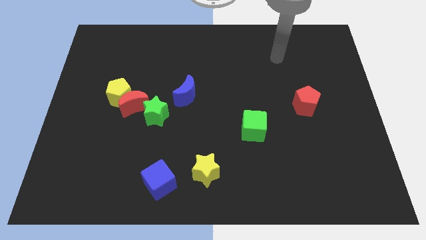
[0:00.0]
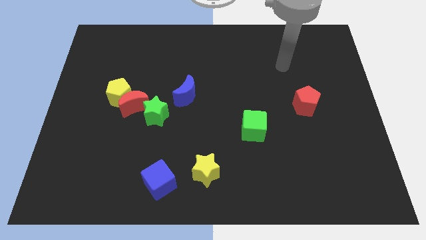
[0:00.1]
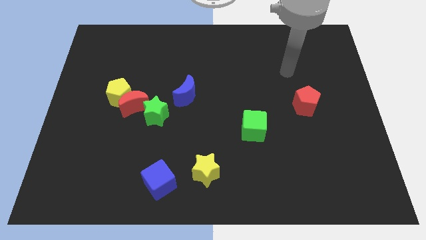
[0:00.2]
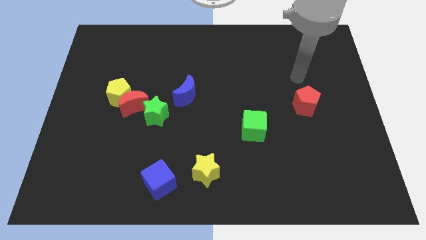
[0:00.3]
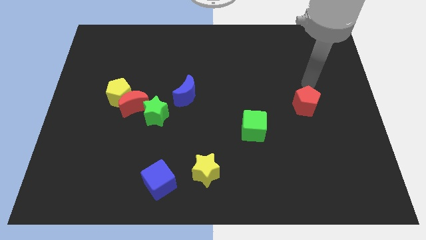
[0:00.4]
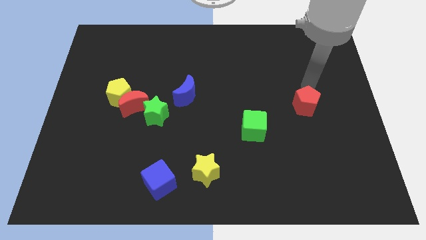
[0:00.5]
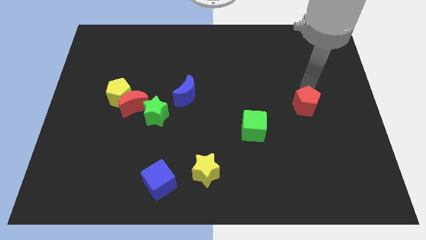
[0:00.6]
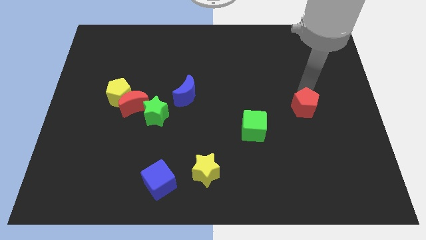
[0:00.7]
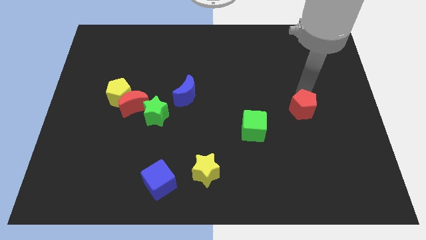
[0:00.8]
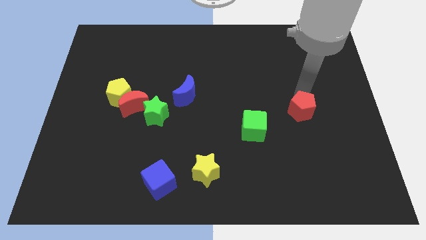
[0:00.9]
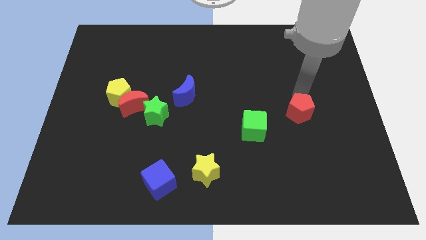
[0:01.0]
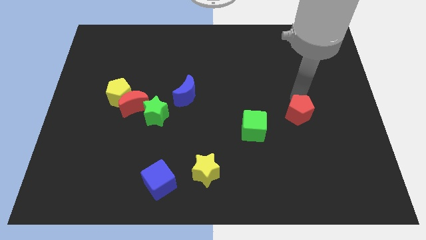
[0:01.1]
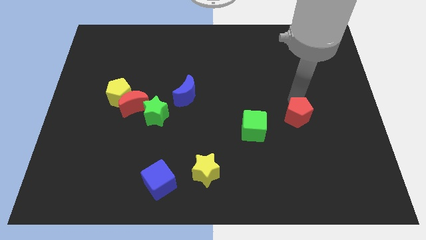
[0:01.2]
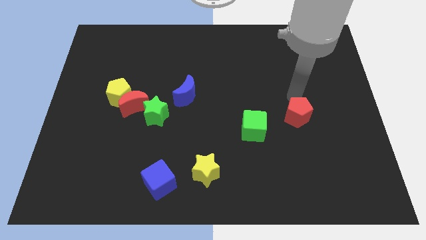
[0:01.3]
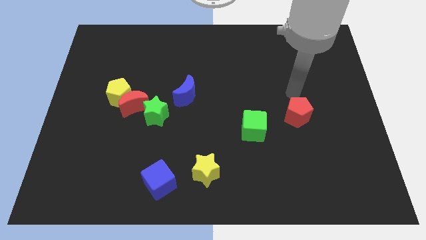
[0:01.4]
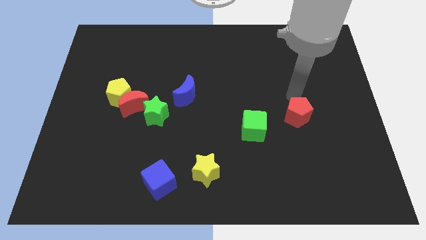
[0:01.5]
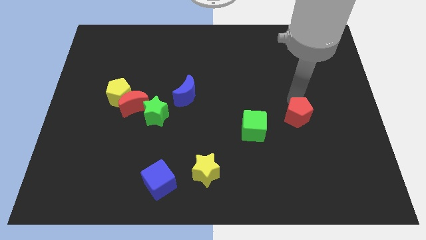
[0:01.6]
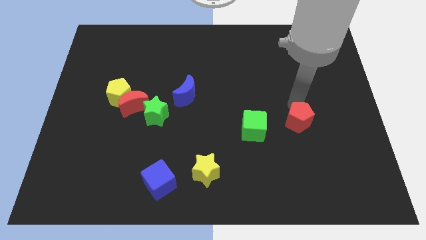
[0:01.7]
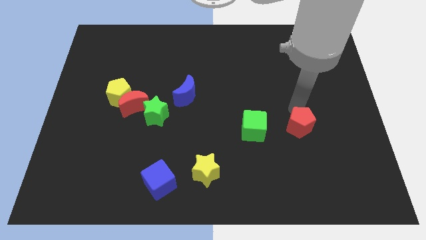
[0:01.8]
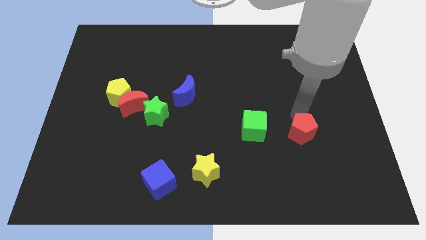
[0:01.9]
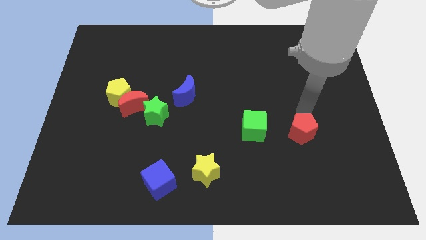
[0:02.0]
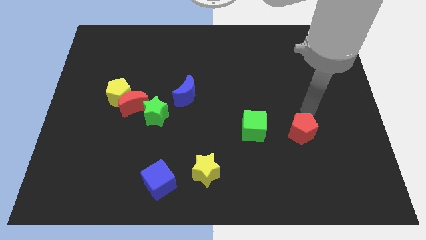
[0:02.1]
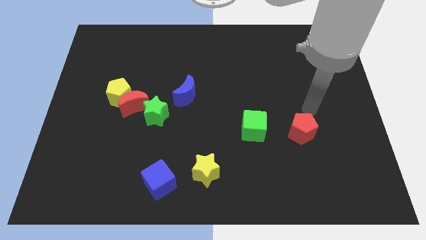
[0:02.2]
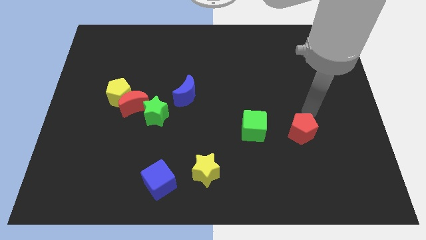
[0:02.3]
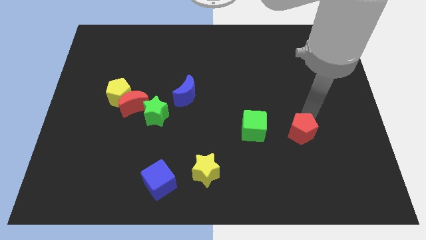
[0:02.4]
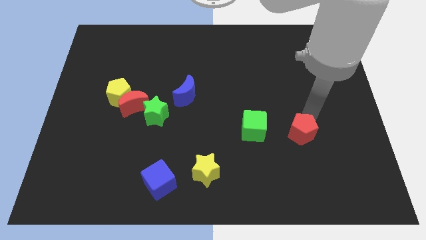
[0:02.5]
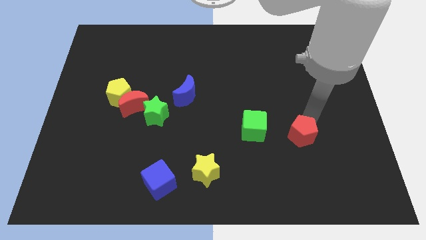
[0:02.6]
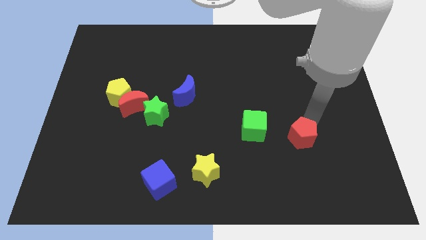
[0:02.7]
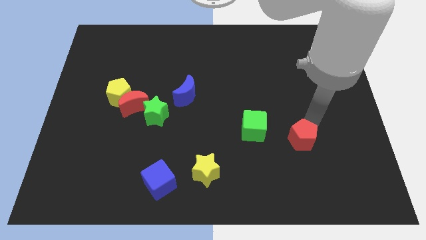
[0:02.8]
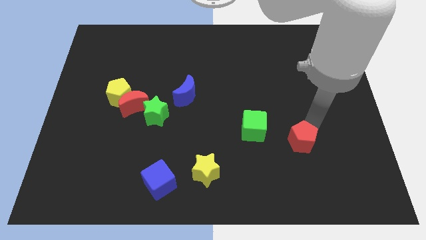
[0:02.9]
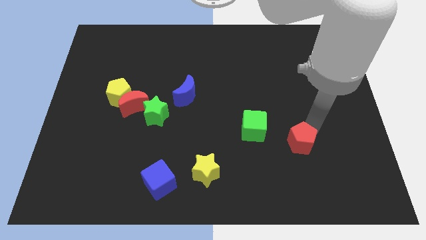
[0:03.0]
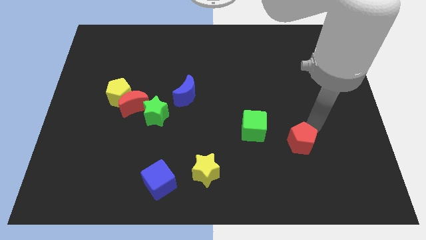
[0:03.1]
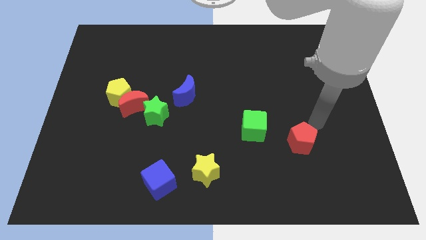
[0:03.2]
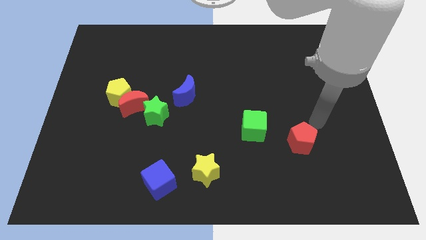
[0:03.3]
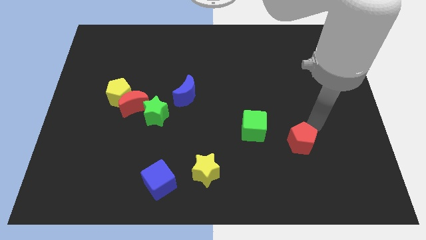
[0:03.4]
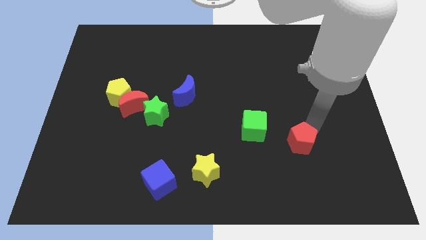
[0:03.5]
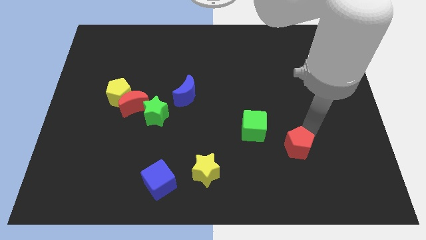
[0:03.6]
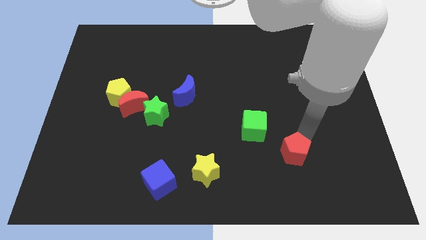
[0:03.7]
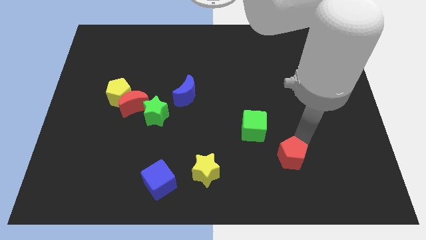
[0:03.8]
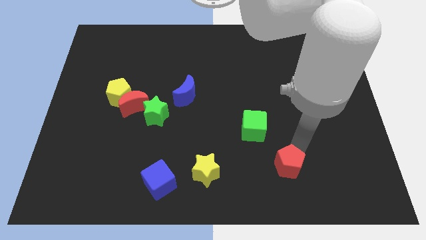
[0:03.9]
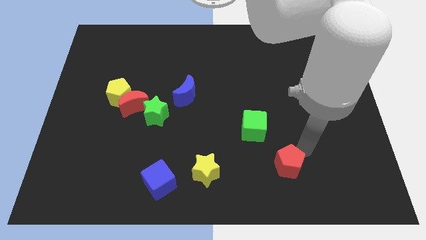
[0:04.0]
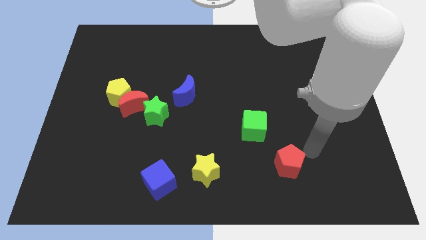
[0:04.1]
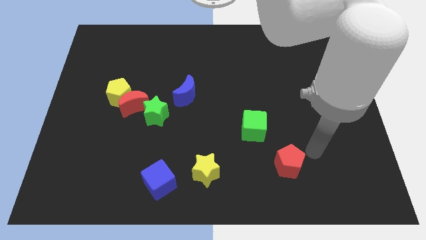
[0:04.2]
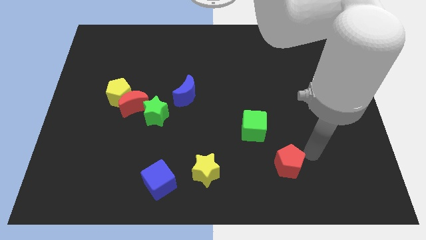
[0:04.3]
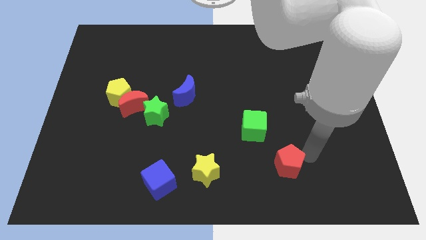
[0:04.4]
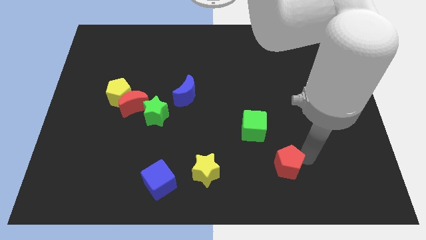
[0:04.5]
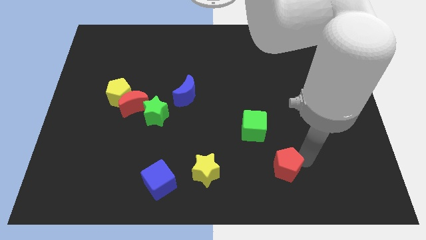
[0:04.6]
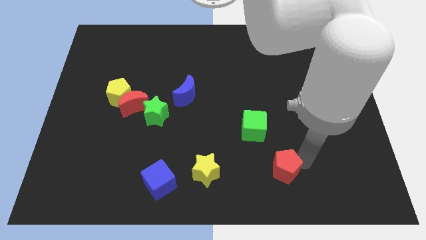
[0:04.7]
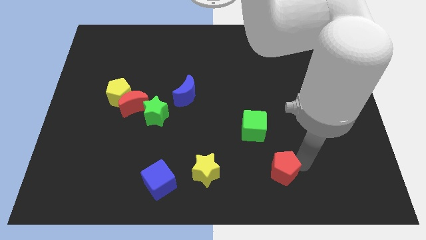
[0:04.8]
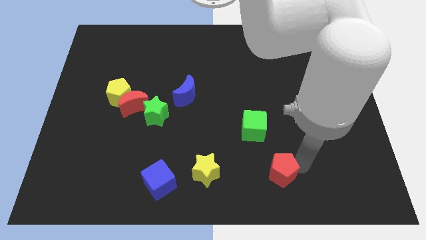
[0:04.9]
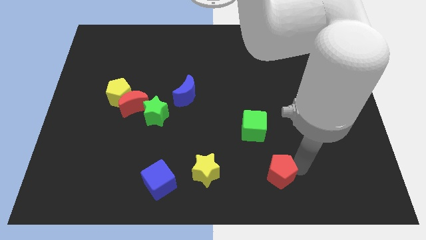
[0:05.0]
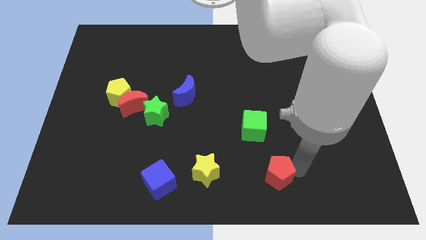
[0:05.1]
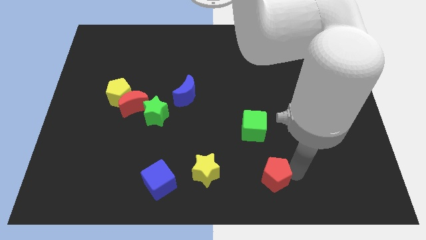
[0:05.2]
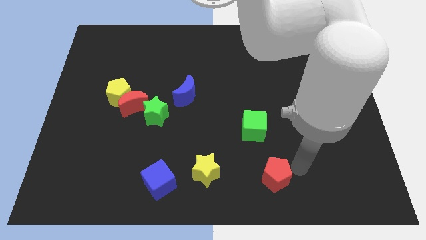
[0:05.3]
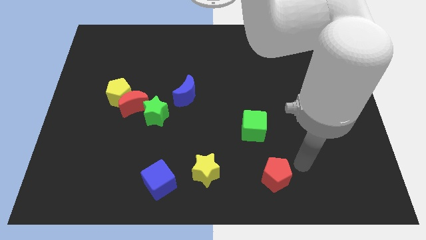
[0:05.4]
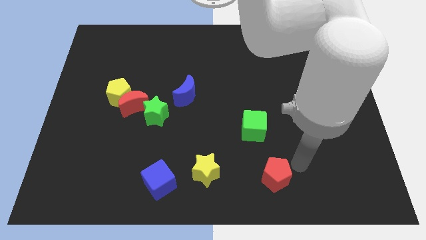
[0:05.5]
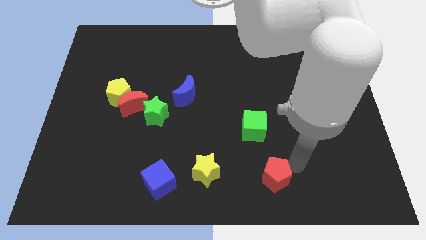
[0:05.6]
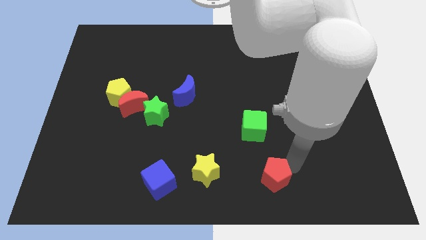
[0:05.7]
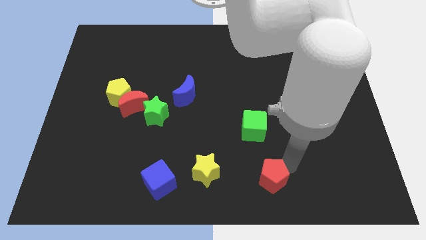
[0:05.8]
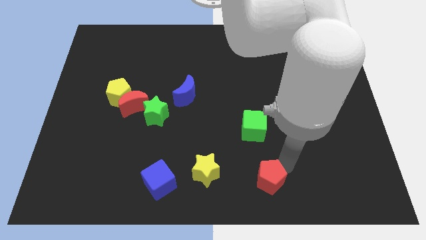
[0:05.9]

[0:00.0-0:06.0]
put the red pentagon to the bottom
